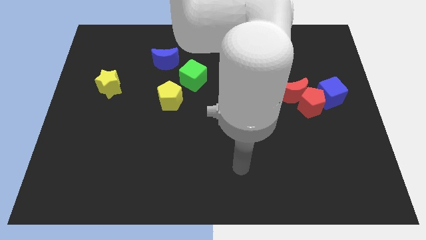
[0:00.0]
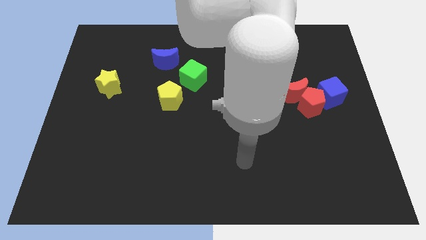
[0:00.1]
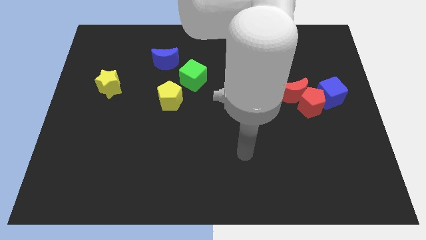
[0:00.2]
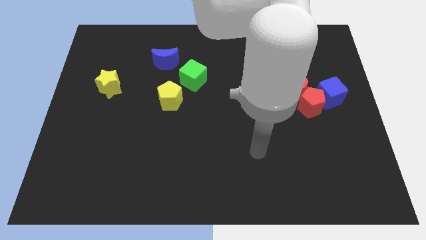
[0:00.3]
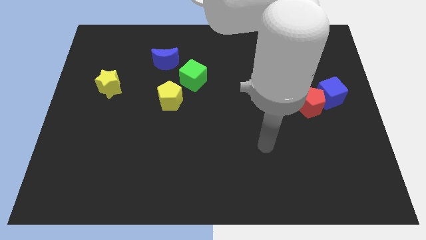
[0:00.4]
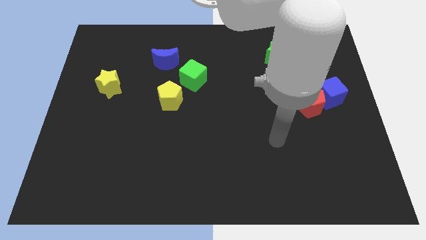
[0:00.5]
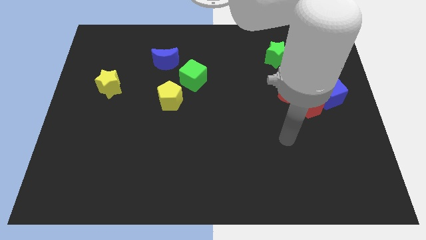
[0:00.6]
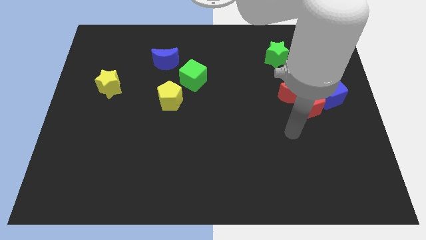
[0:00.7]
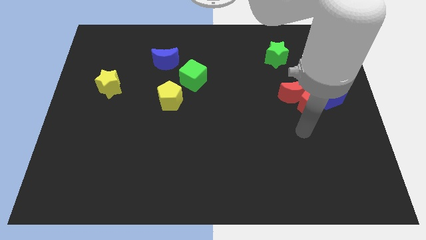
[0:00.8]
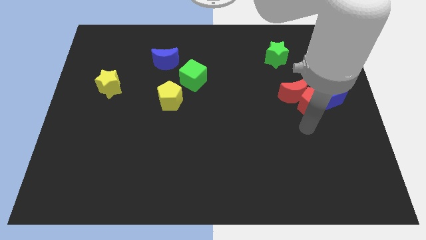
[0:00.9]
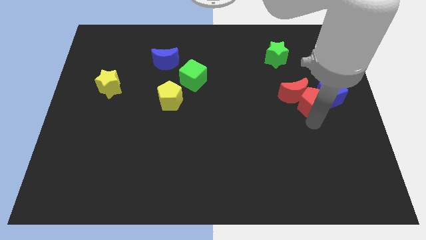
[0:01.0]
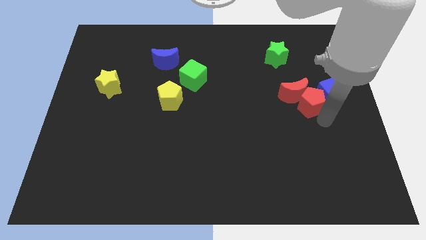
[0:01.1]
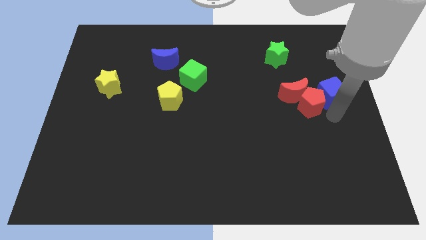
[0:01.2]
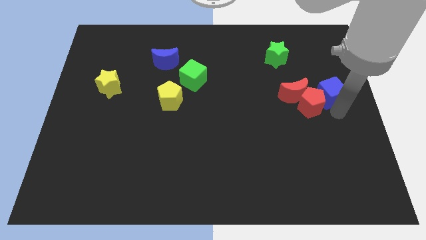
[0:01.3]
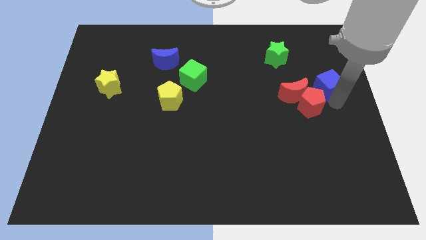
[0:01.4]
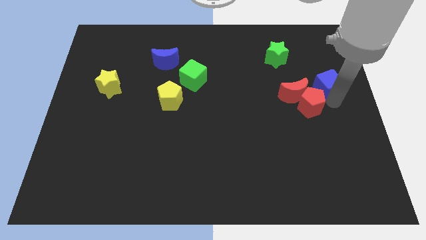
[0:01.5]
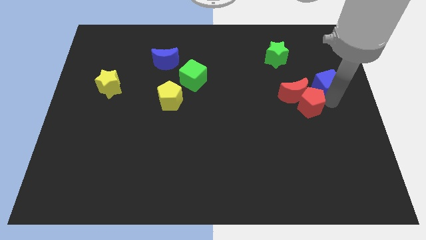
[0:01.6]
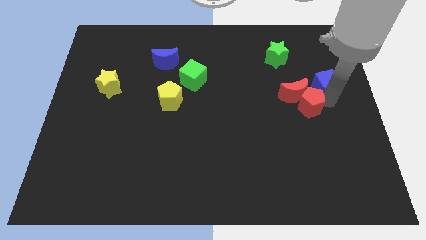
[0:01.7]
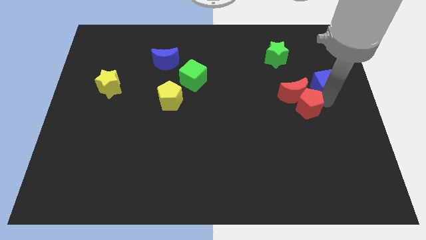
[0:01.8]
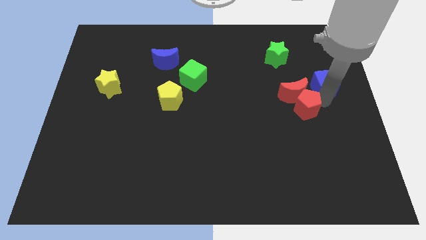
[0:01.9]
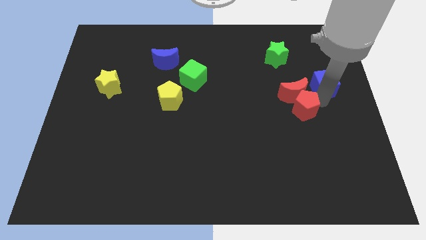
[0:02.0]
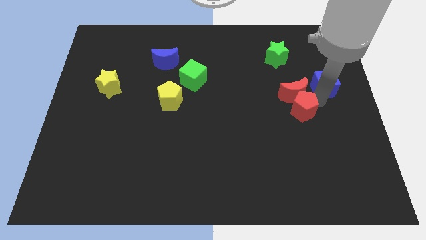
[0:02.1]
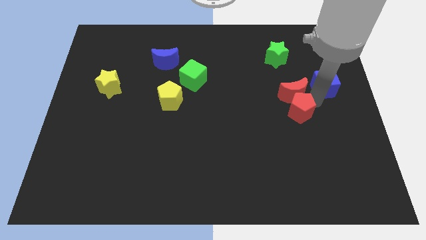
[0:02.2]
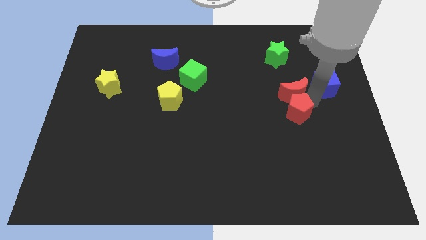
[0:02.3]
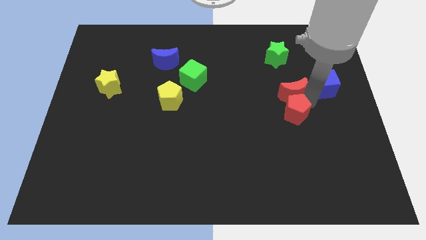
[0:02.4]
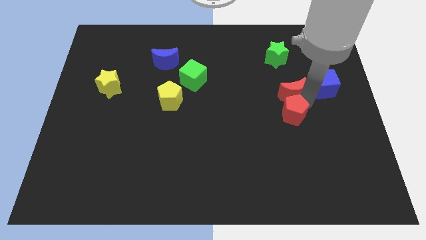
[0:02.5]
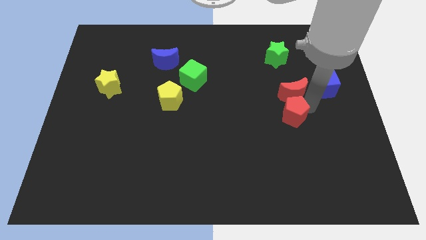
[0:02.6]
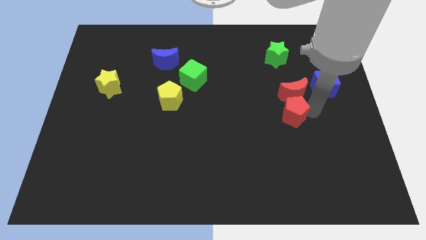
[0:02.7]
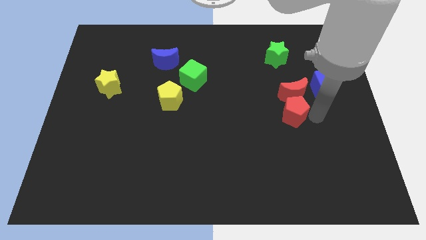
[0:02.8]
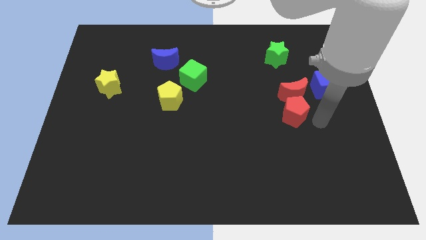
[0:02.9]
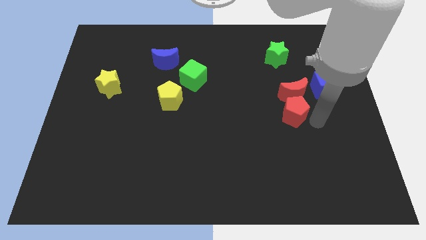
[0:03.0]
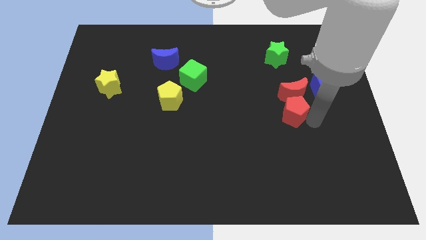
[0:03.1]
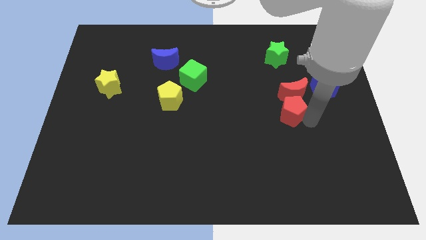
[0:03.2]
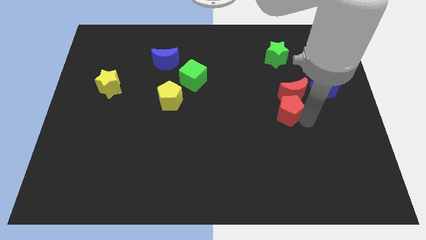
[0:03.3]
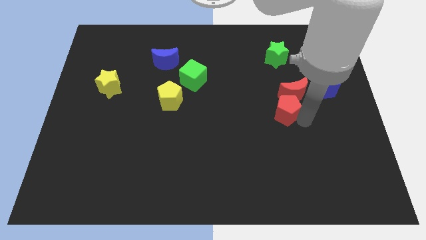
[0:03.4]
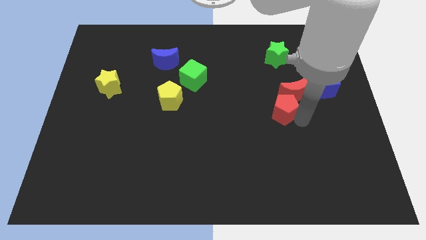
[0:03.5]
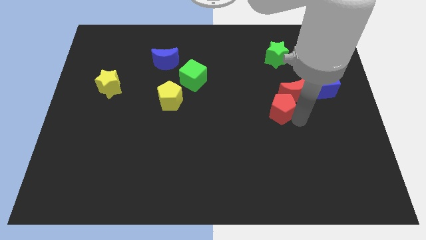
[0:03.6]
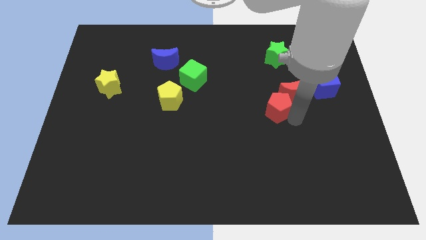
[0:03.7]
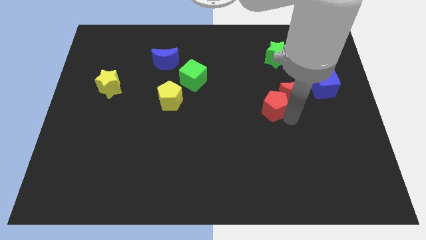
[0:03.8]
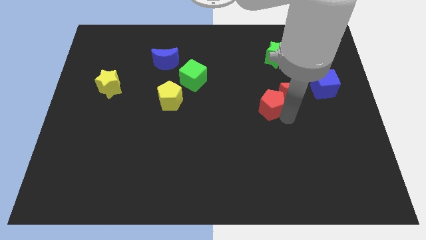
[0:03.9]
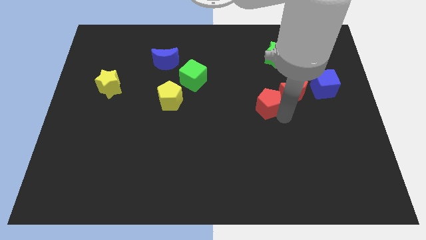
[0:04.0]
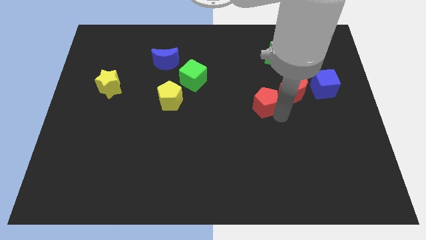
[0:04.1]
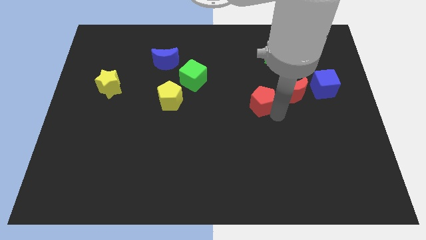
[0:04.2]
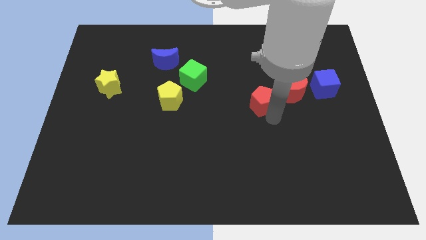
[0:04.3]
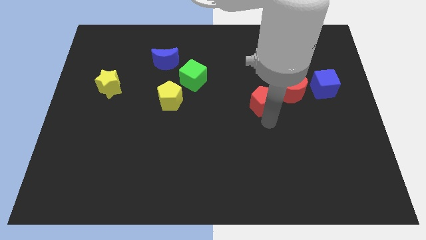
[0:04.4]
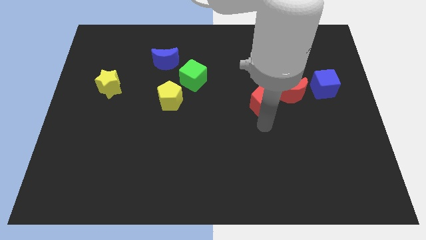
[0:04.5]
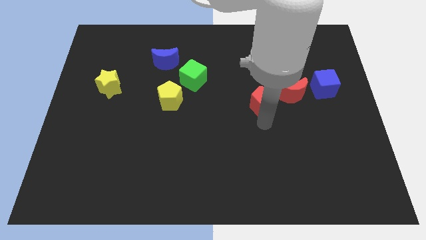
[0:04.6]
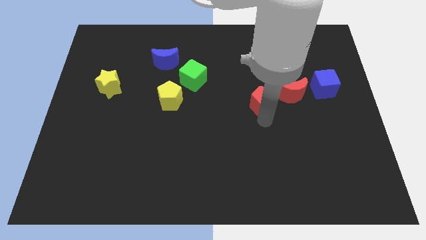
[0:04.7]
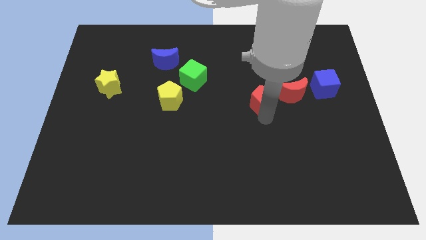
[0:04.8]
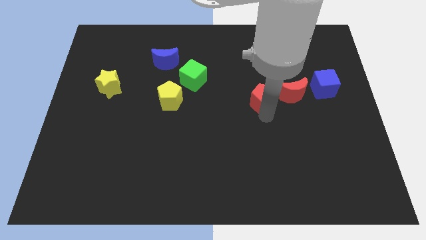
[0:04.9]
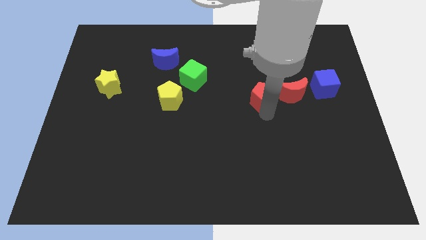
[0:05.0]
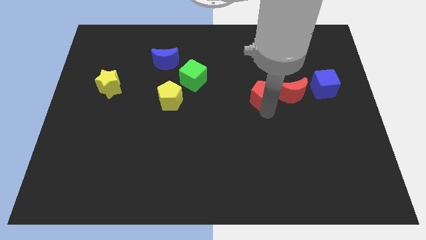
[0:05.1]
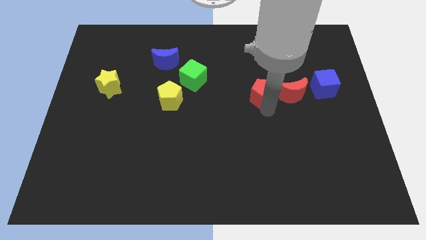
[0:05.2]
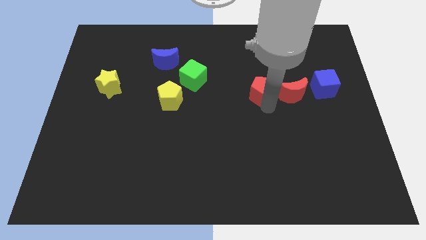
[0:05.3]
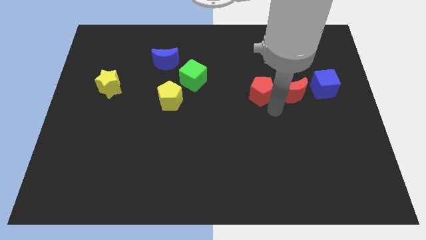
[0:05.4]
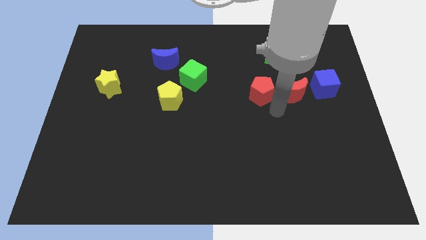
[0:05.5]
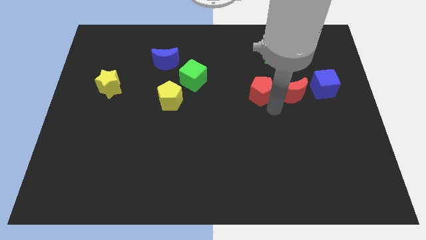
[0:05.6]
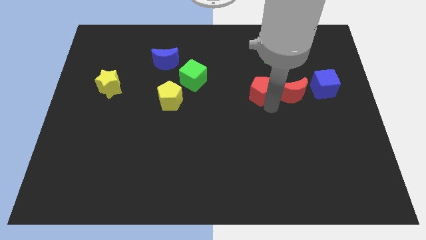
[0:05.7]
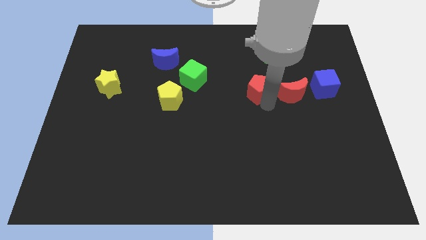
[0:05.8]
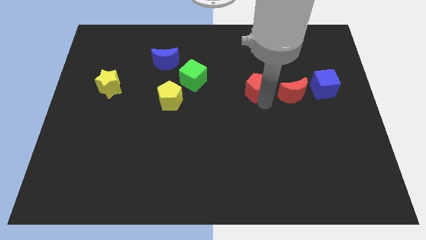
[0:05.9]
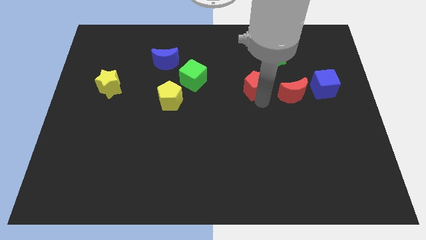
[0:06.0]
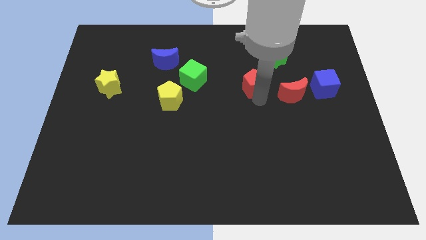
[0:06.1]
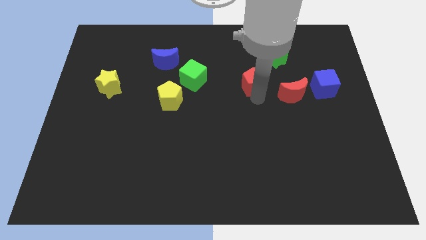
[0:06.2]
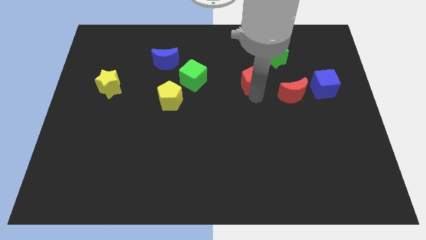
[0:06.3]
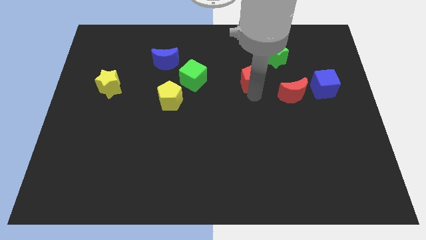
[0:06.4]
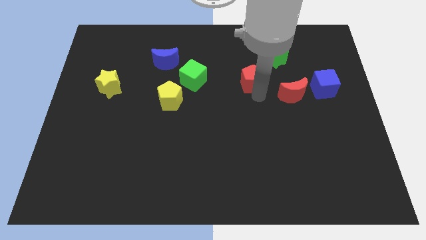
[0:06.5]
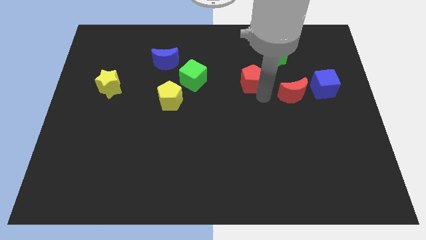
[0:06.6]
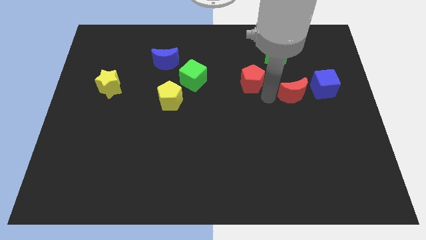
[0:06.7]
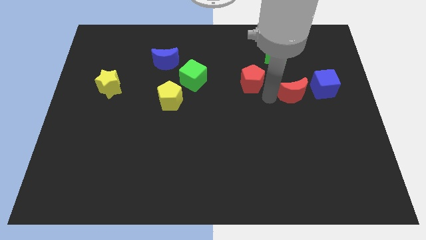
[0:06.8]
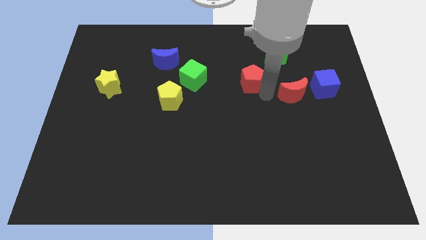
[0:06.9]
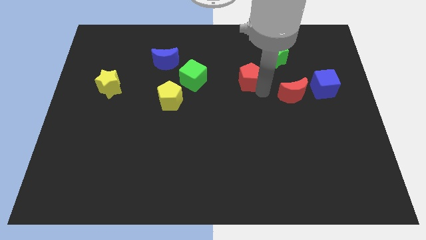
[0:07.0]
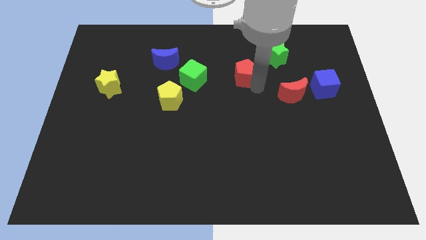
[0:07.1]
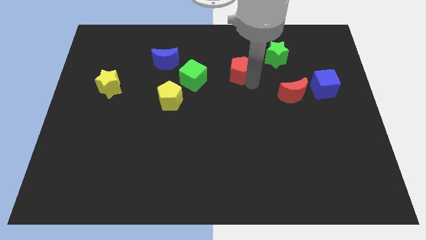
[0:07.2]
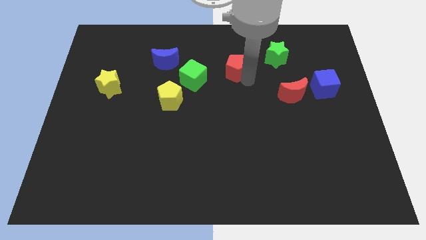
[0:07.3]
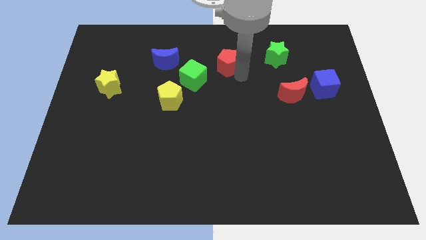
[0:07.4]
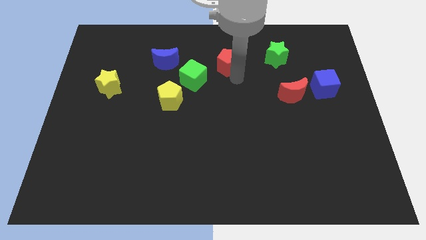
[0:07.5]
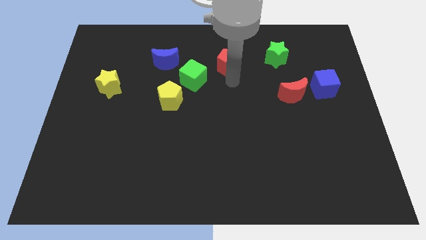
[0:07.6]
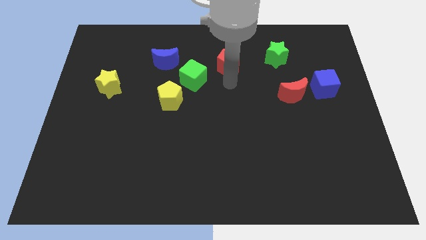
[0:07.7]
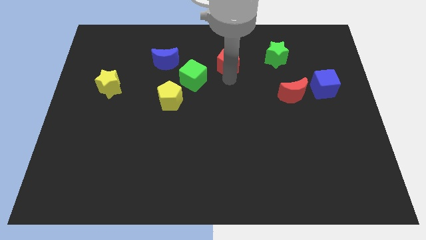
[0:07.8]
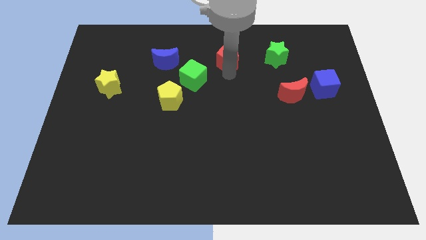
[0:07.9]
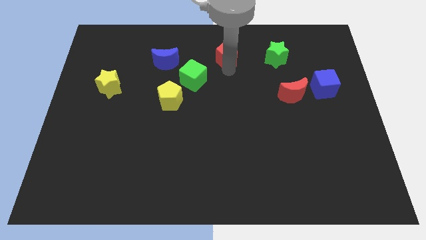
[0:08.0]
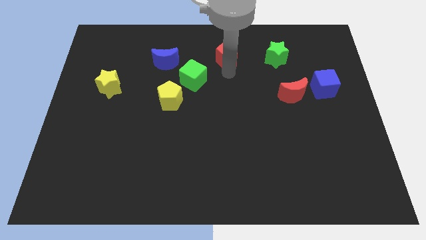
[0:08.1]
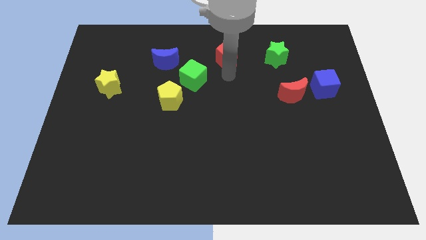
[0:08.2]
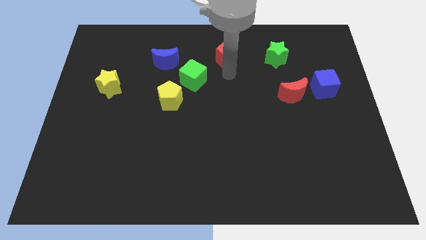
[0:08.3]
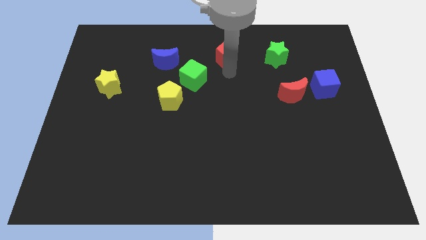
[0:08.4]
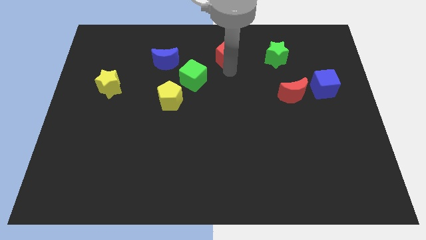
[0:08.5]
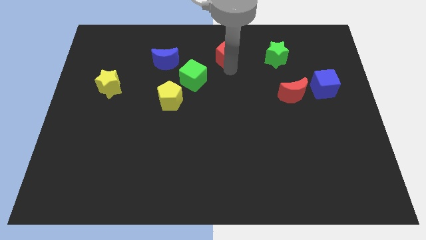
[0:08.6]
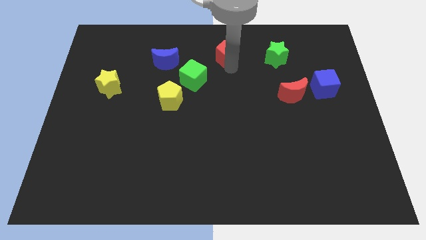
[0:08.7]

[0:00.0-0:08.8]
move the red pentagon to the towards your base
